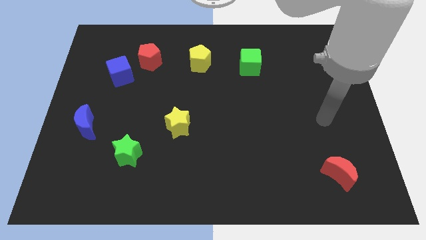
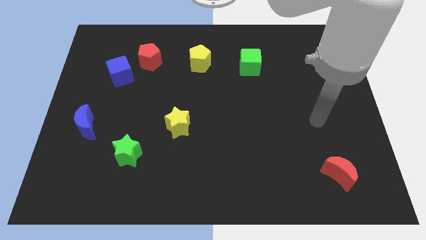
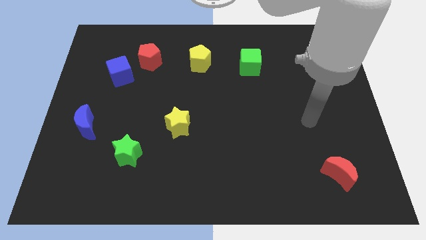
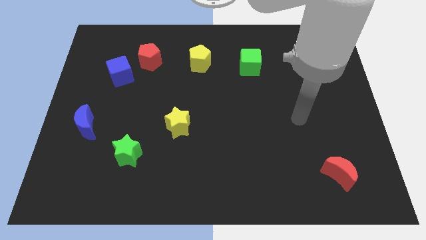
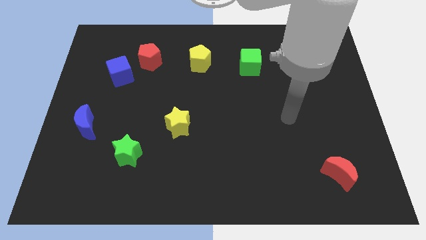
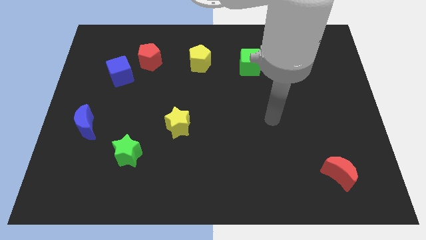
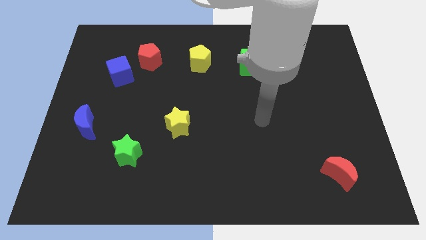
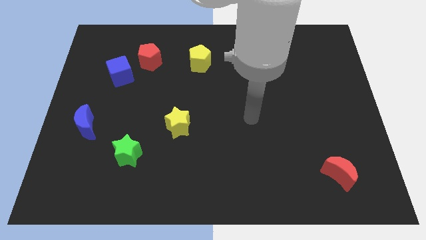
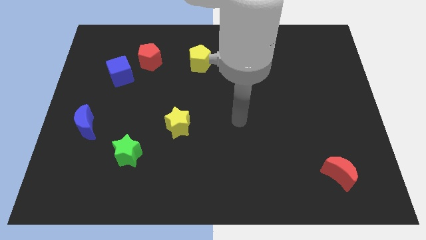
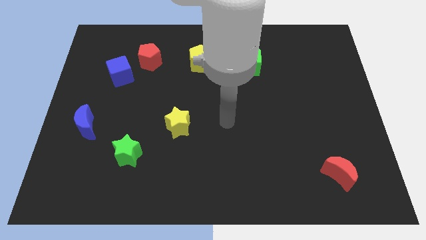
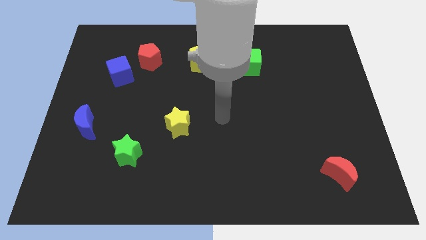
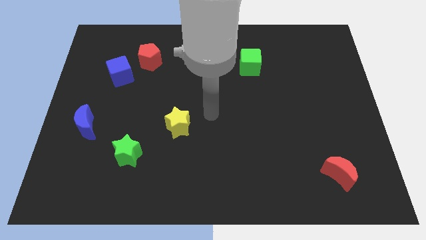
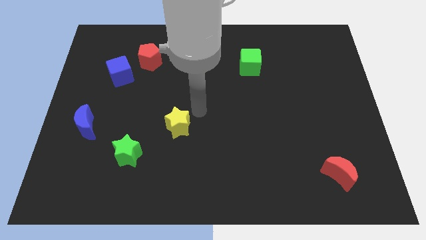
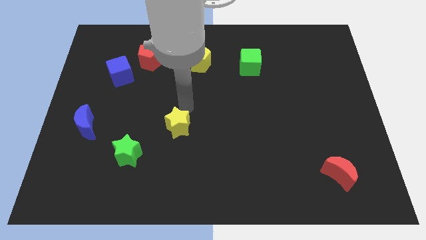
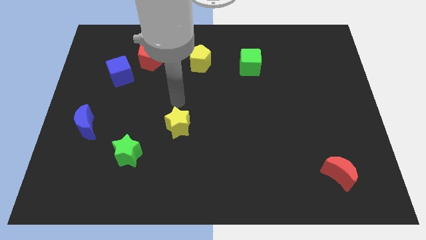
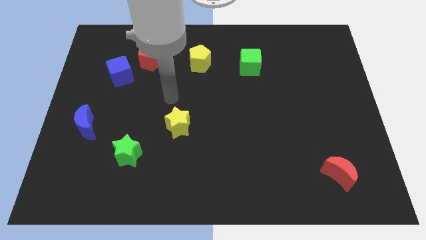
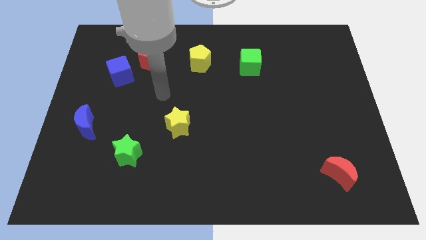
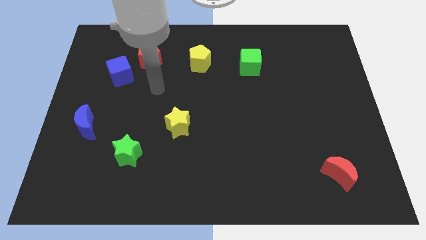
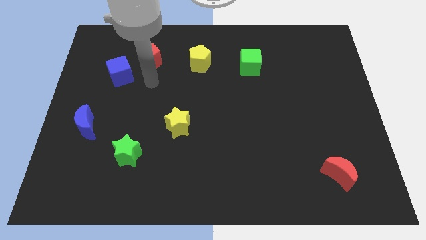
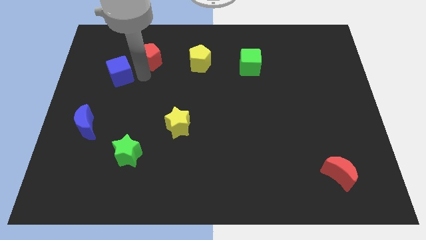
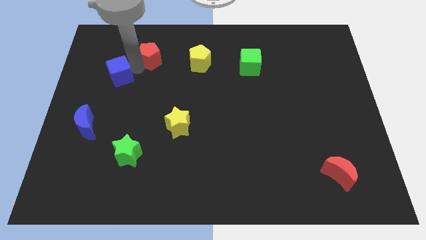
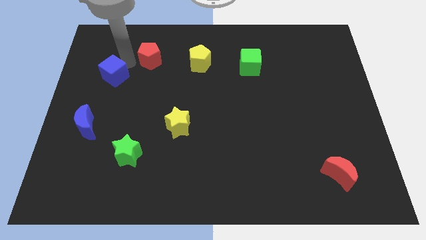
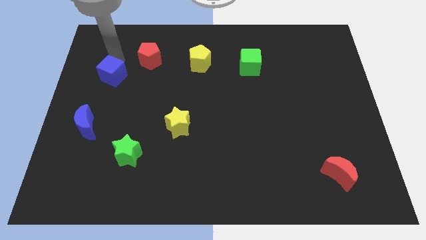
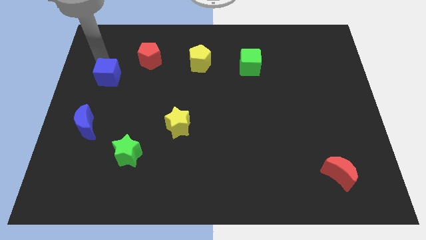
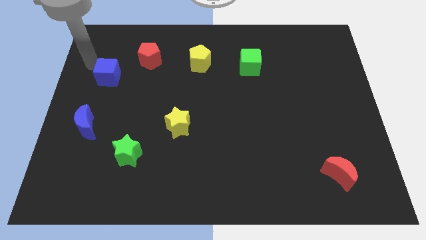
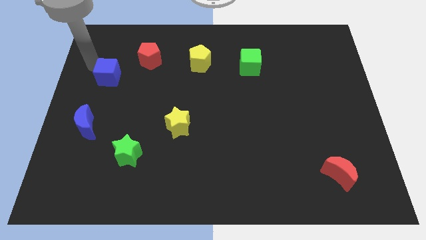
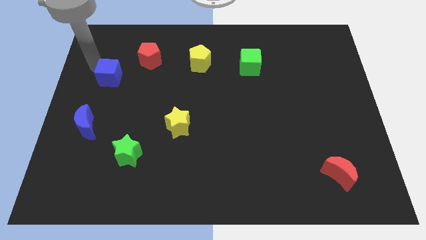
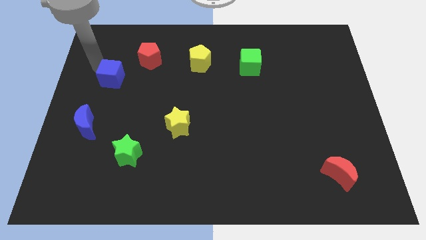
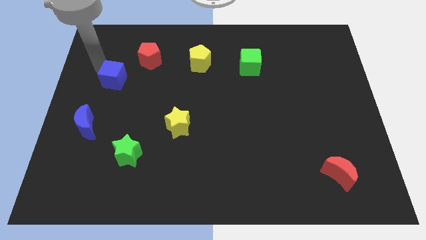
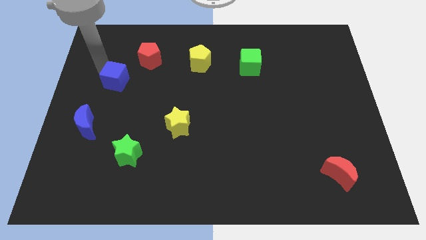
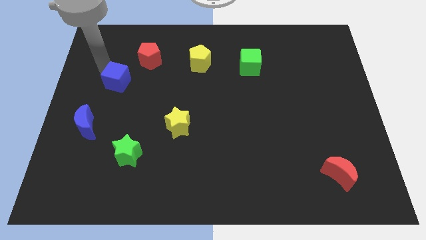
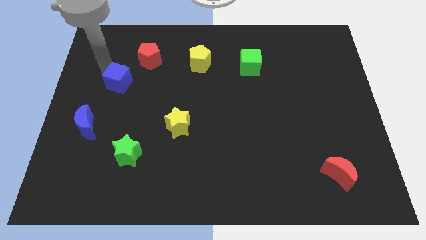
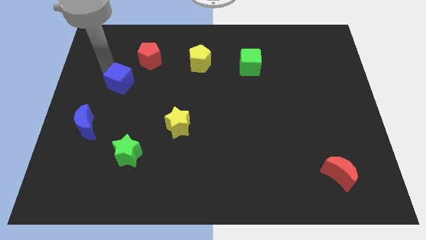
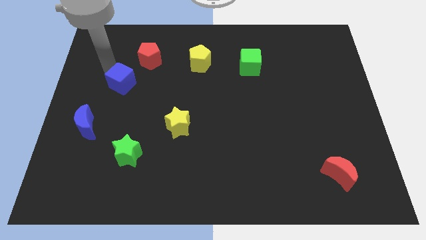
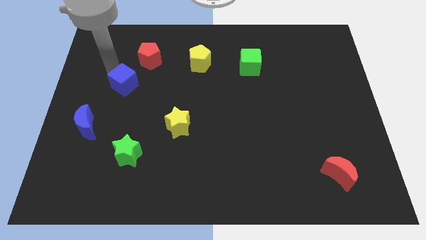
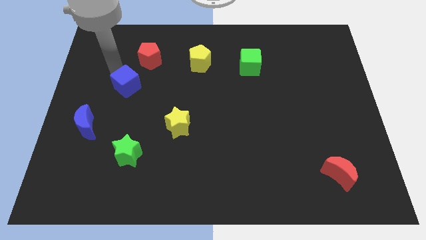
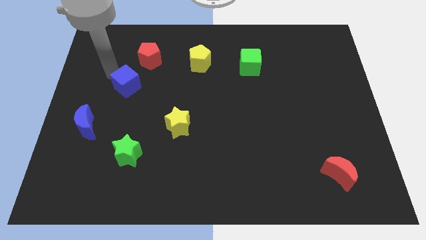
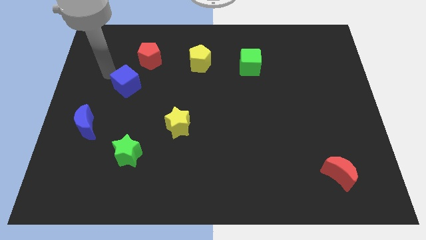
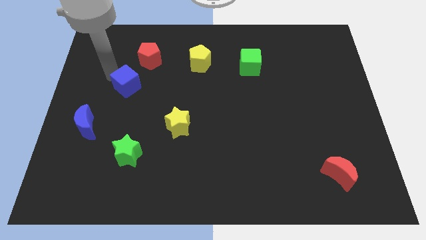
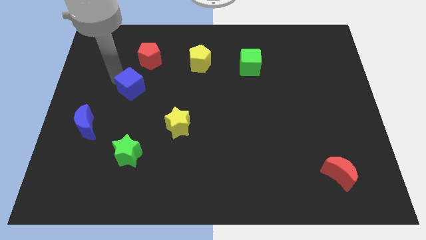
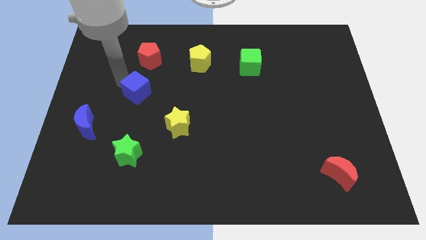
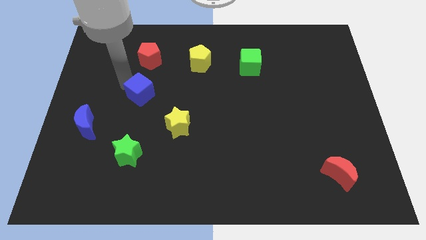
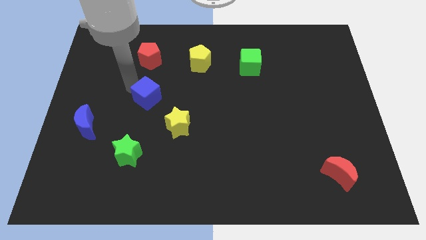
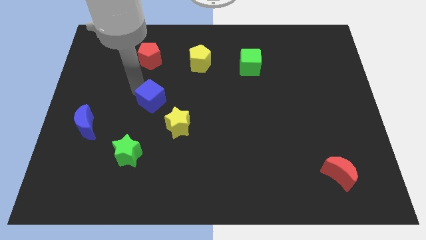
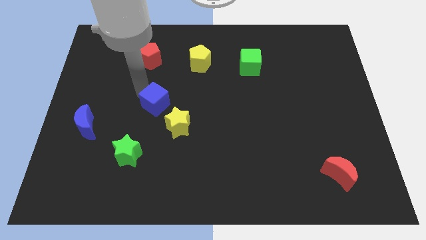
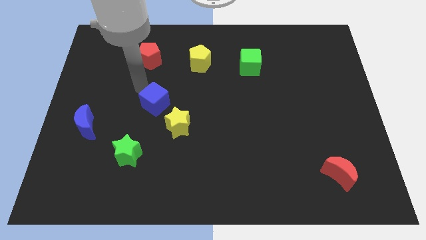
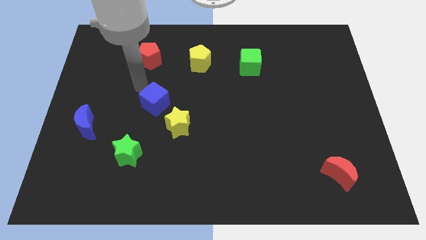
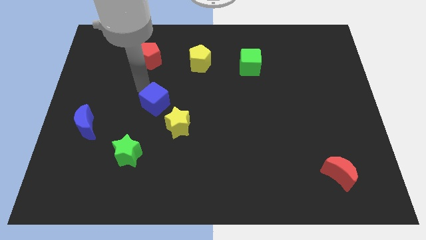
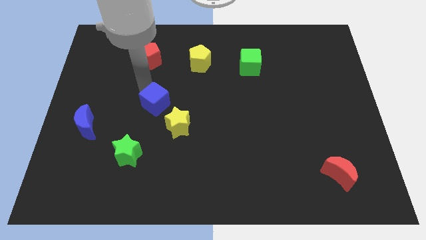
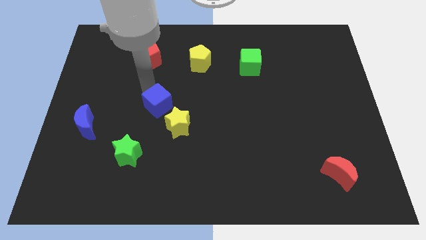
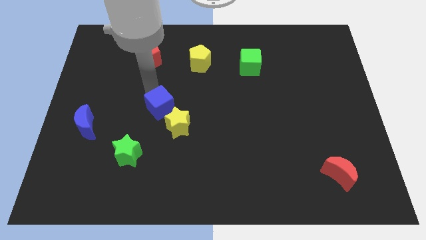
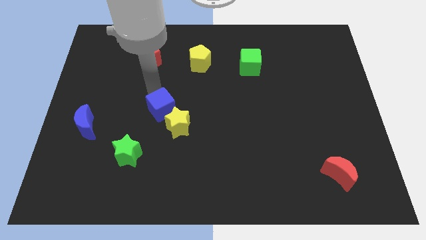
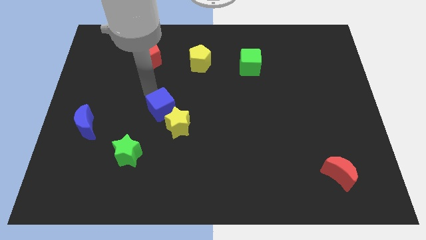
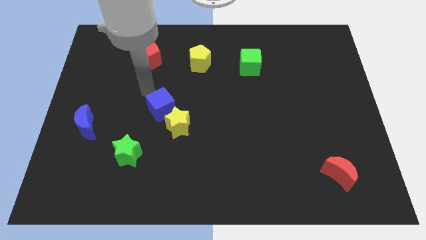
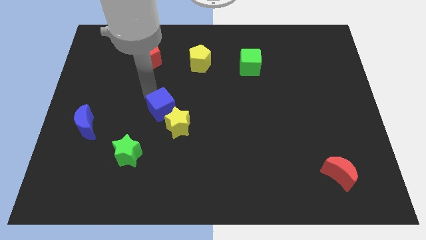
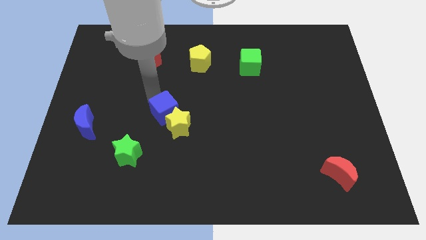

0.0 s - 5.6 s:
put the blue cube towards the yellow star

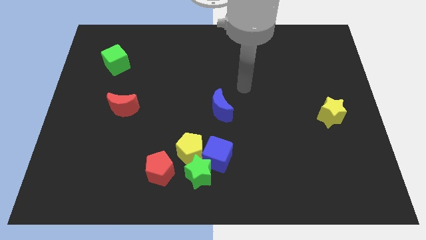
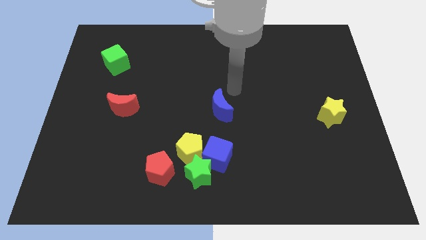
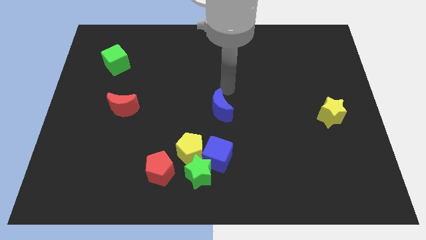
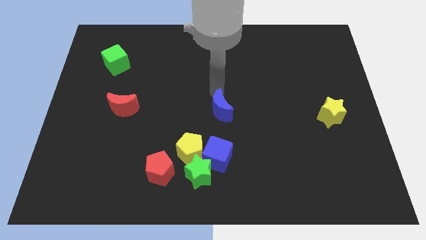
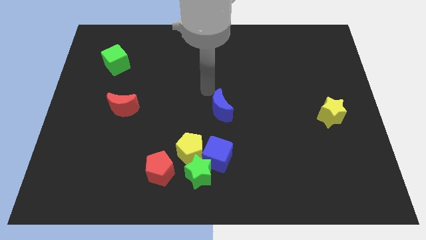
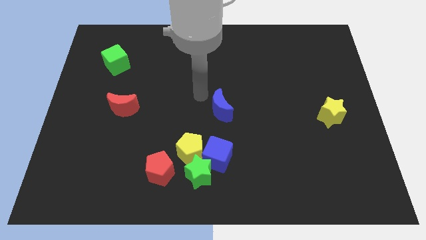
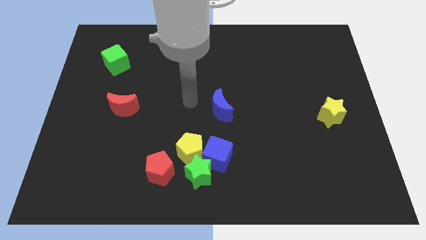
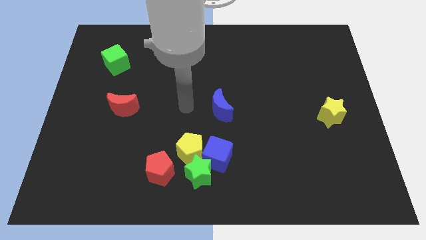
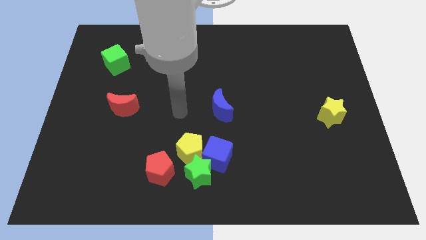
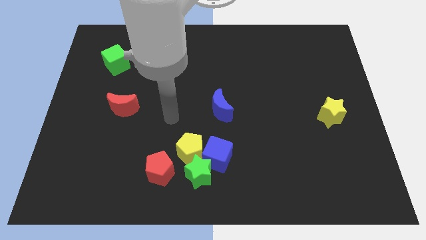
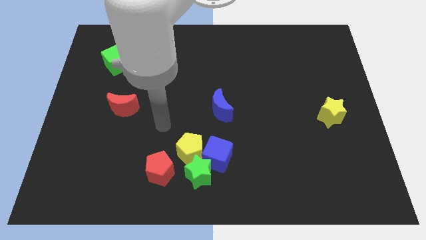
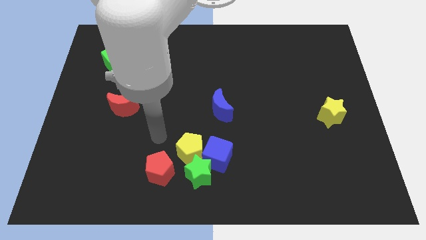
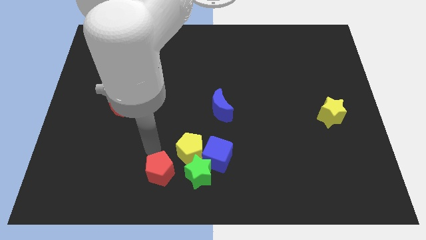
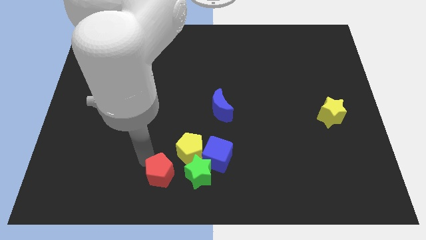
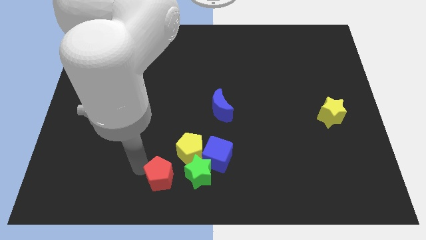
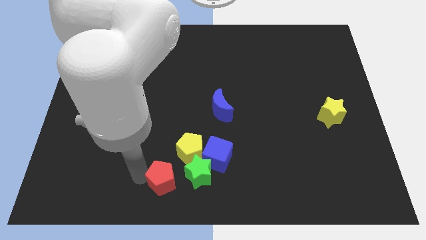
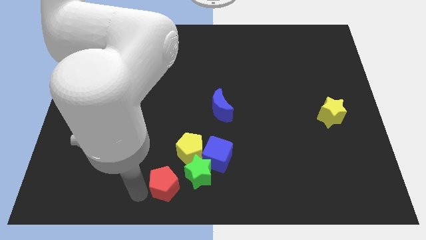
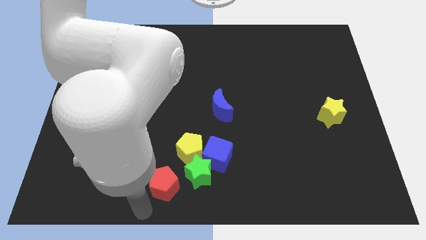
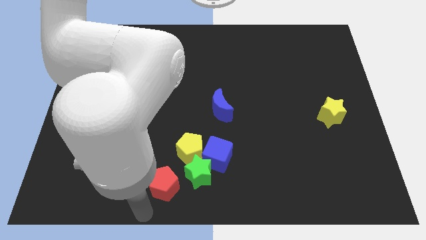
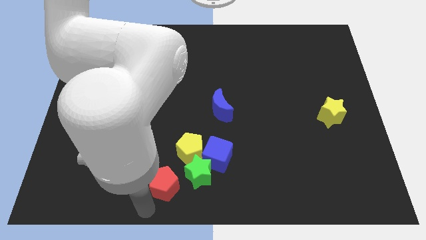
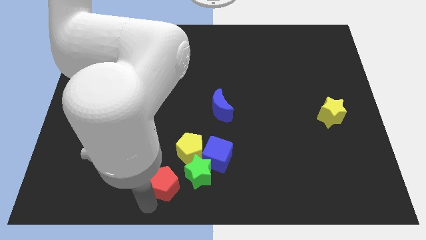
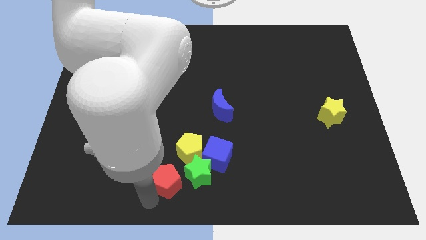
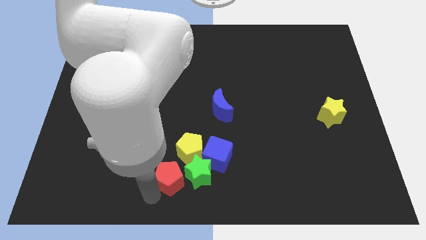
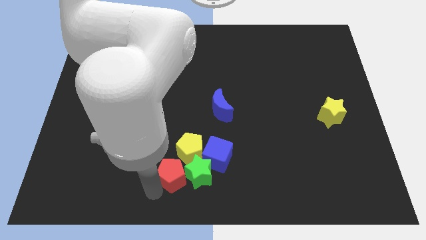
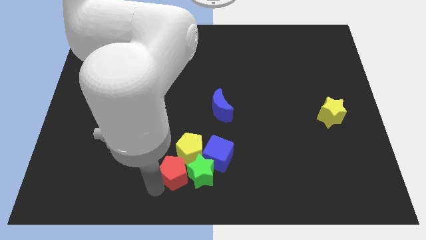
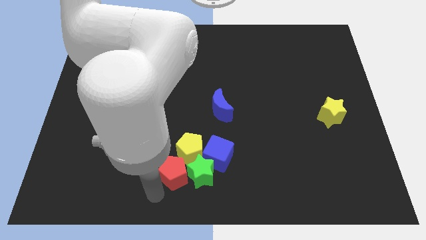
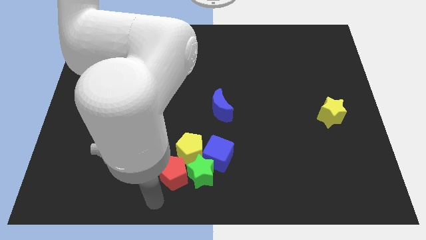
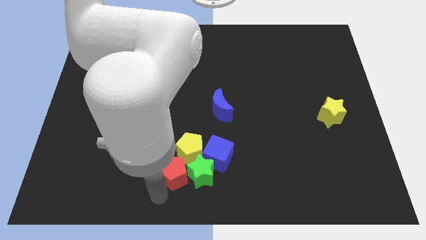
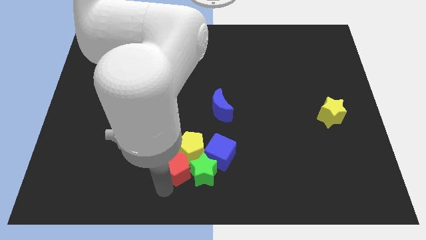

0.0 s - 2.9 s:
push the red pentagon next to the yellow pentagon

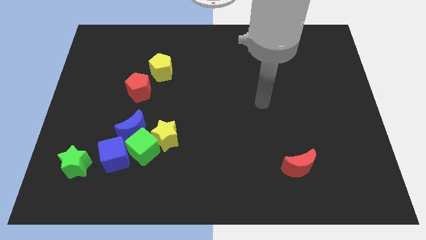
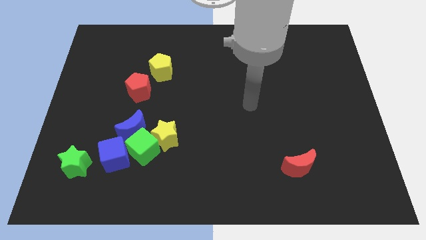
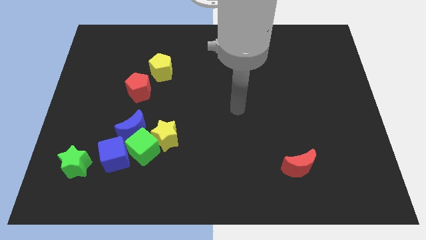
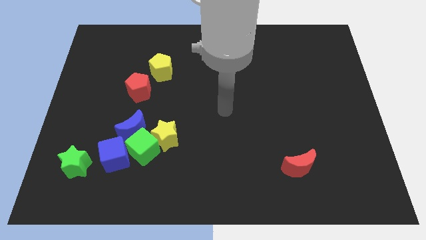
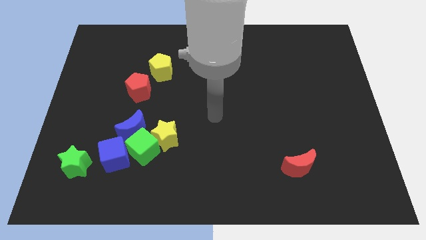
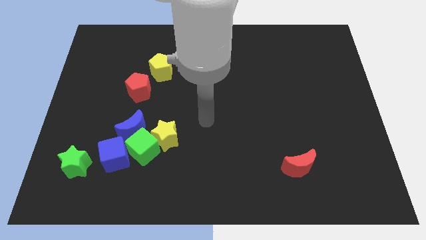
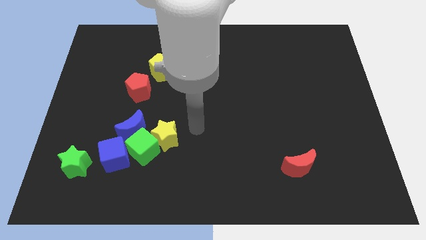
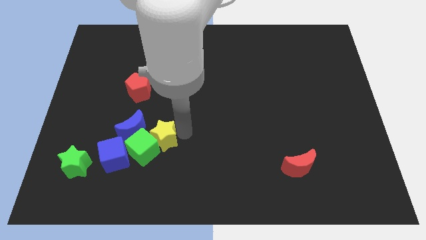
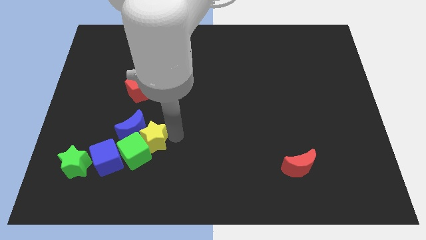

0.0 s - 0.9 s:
push the blue cube close to the green star
